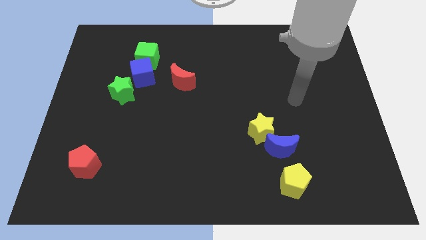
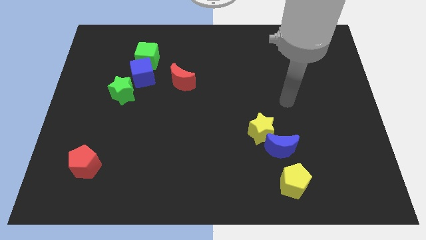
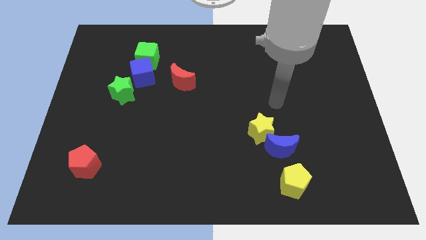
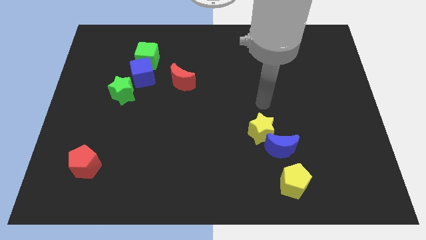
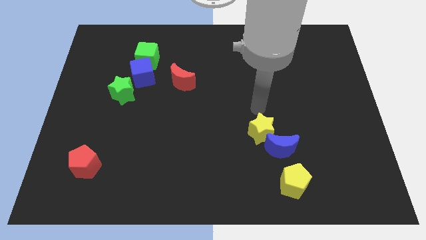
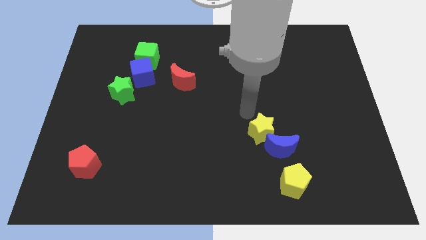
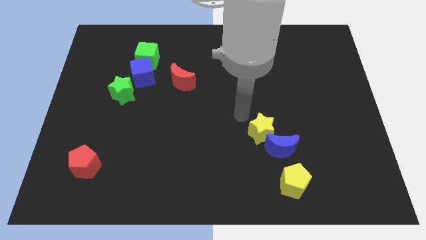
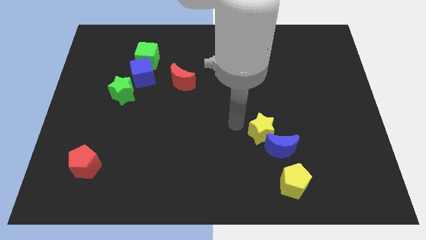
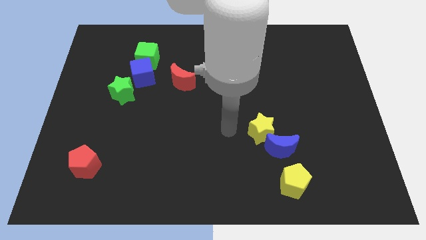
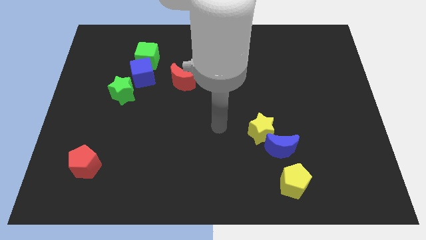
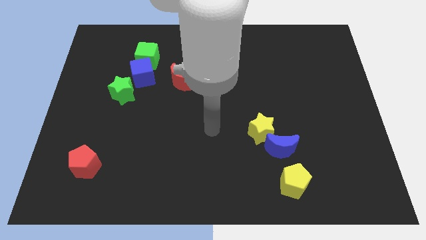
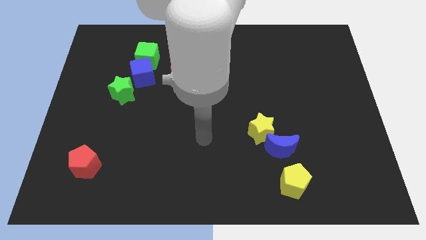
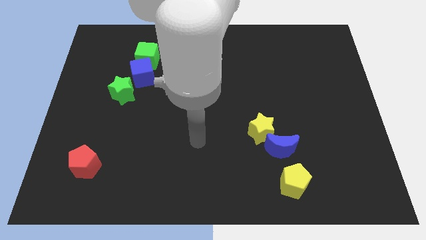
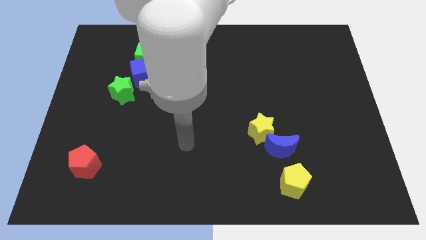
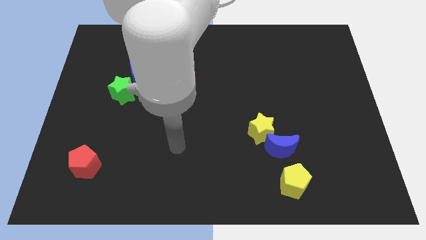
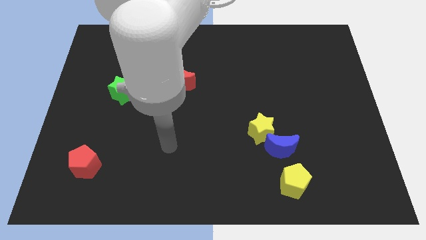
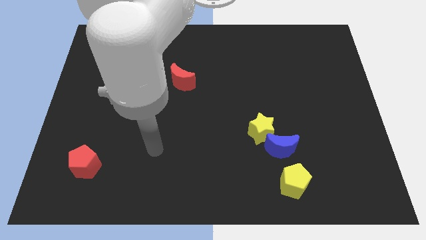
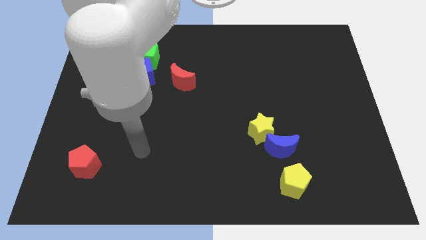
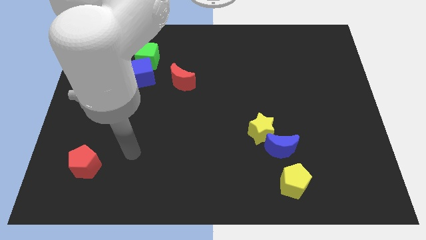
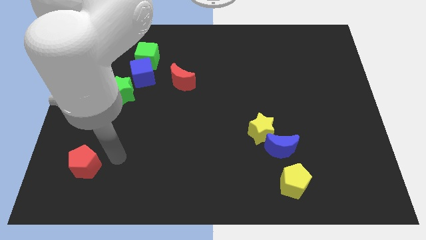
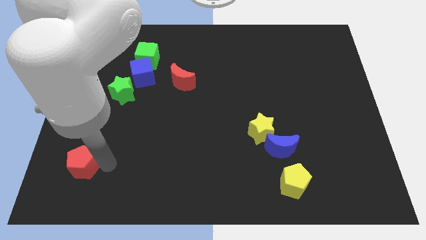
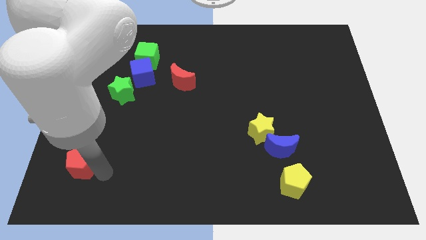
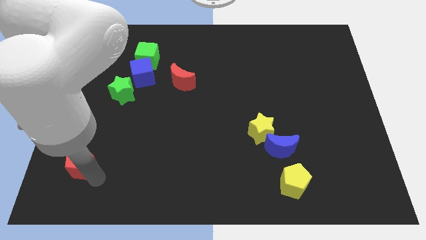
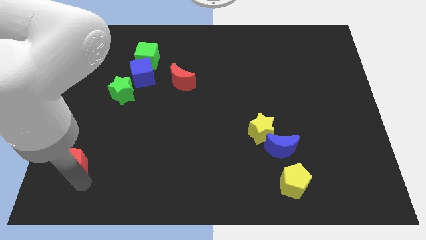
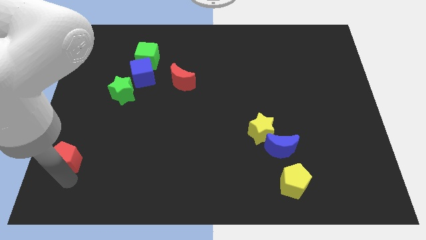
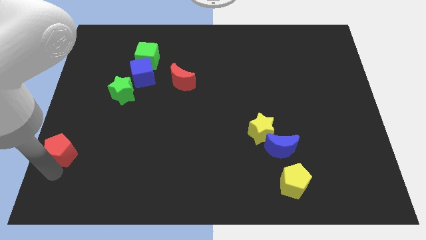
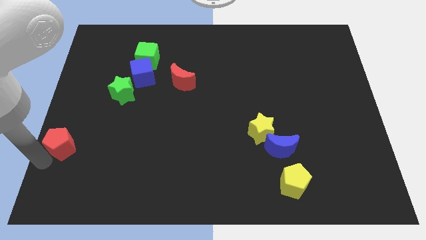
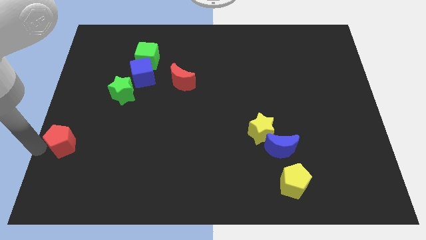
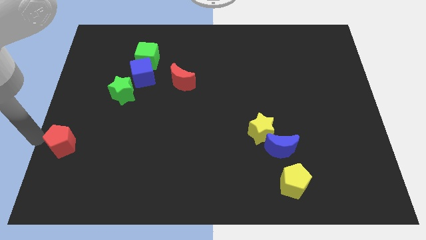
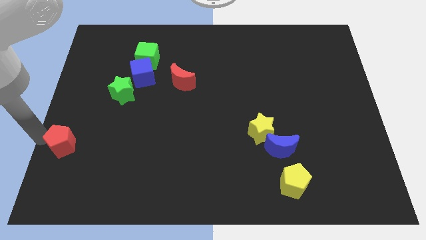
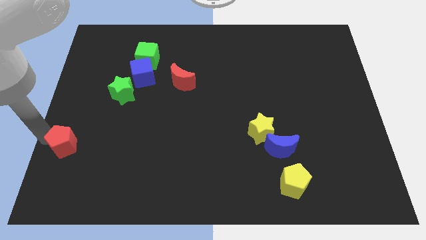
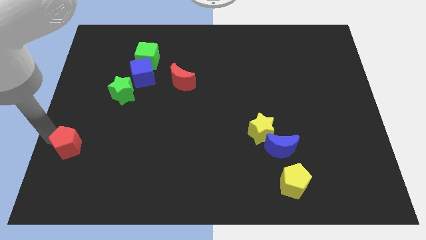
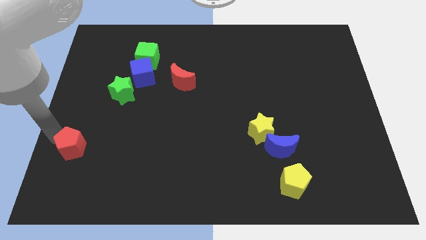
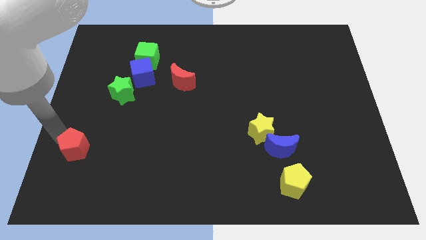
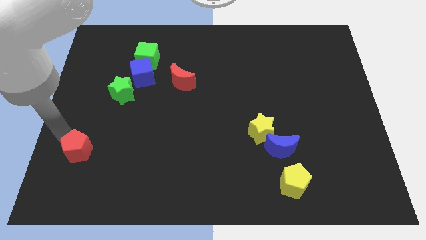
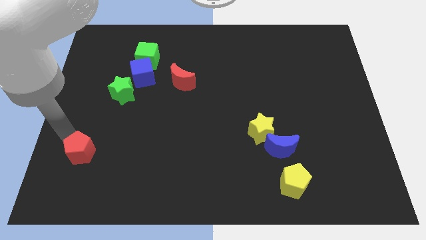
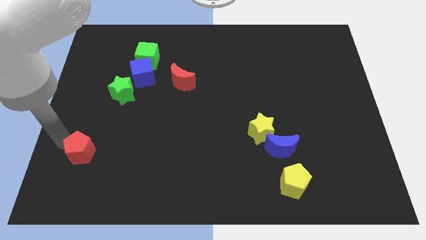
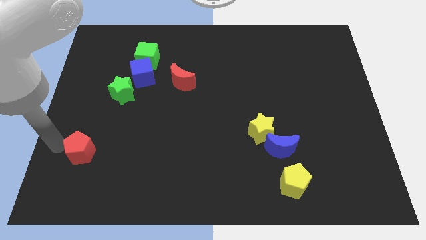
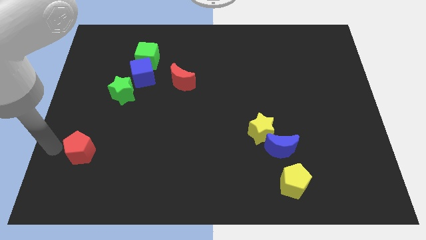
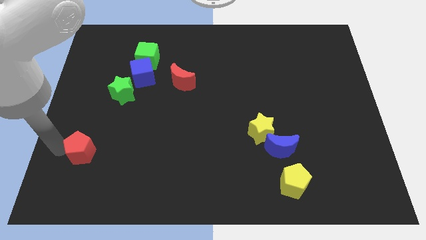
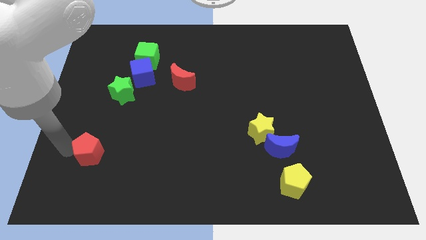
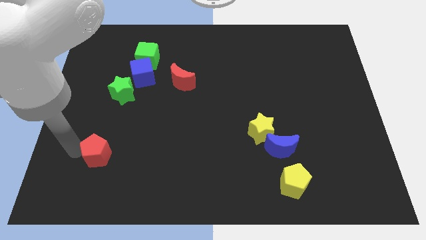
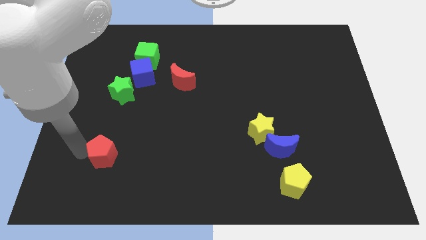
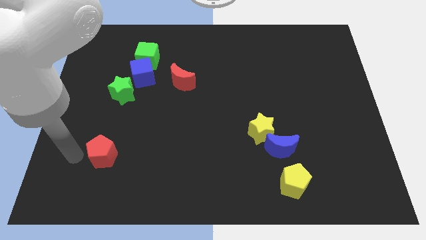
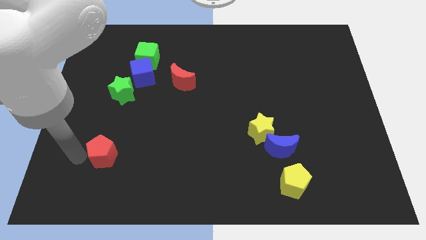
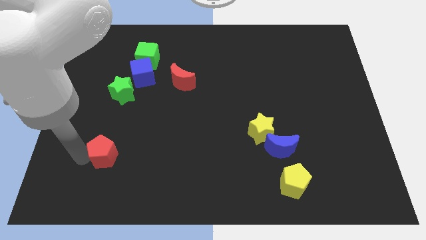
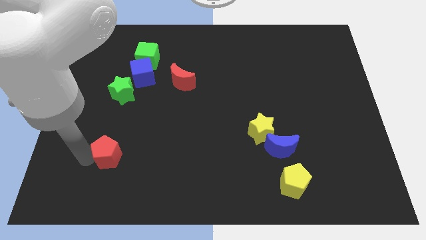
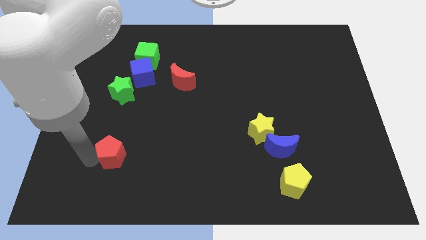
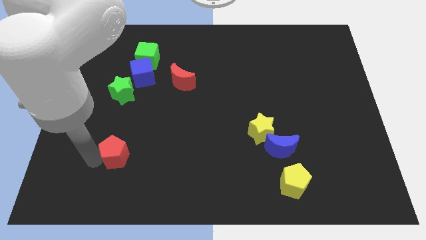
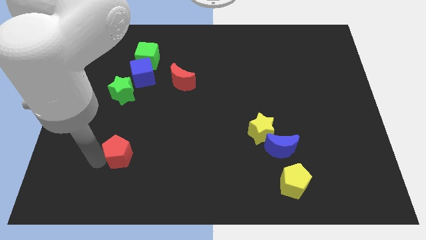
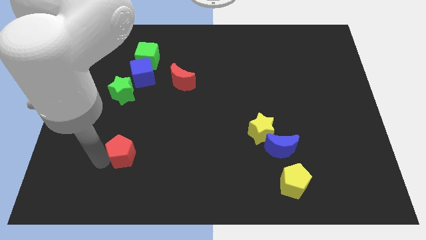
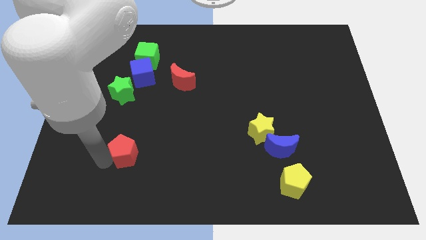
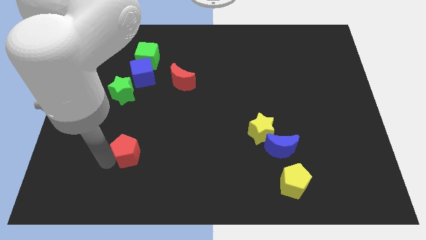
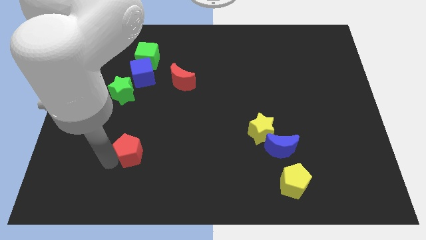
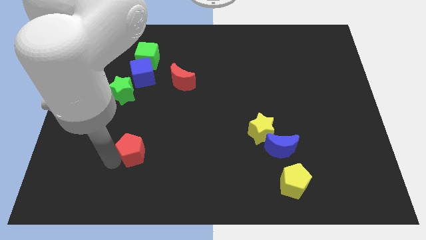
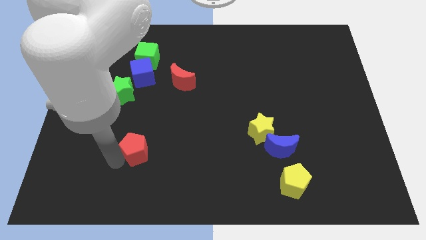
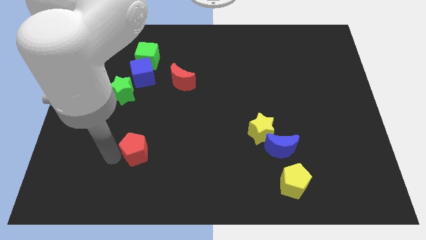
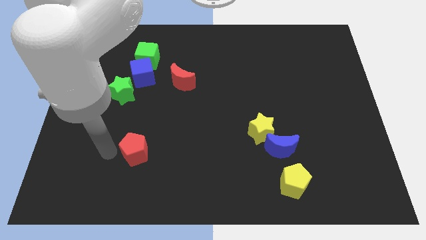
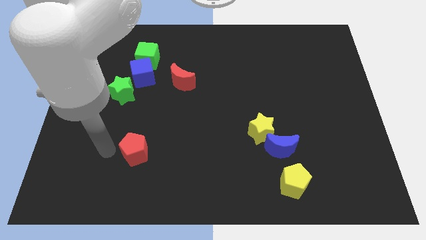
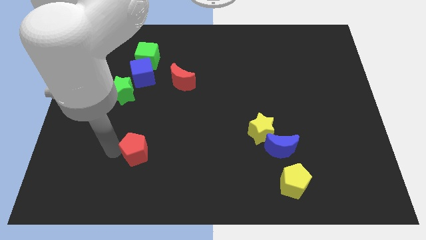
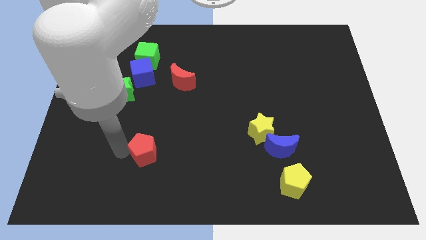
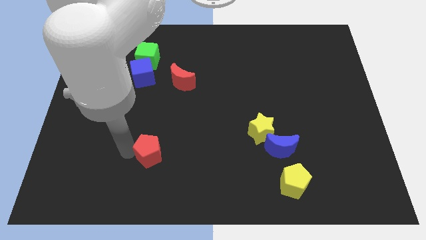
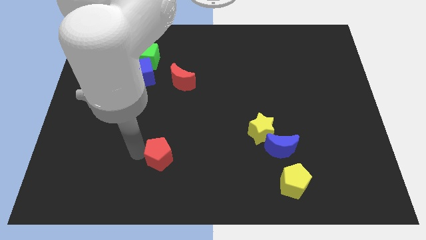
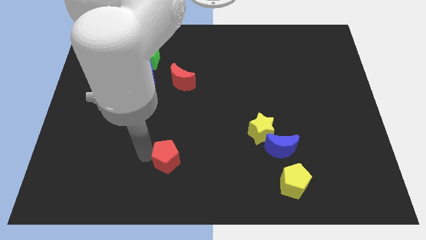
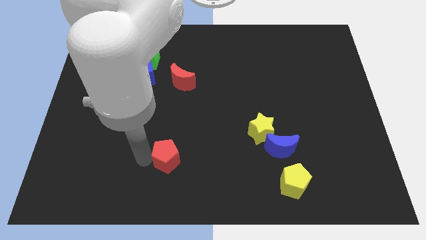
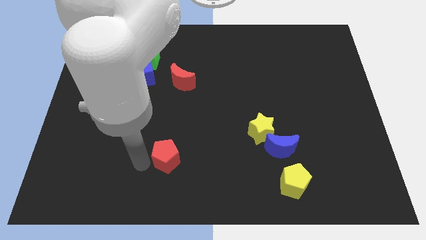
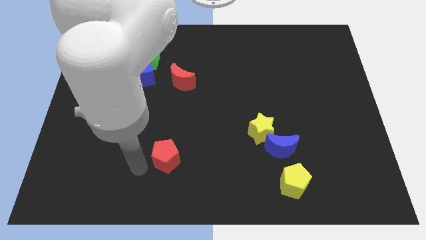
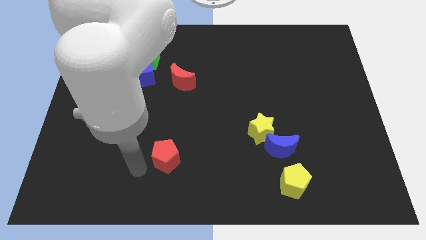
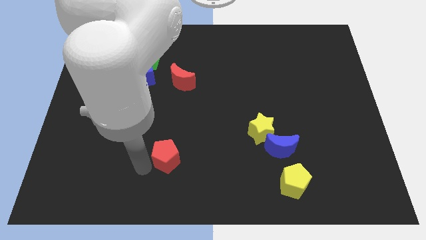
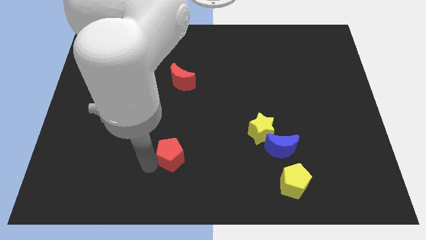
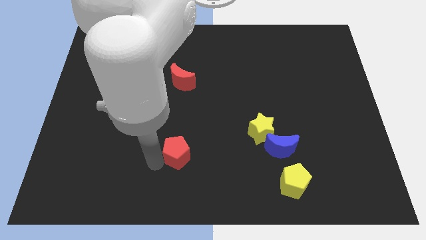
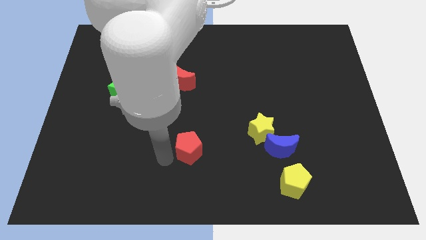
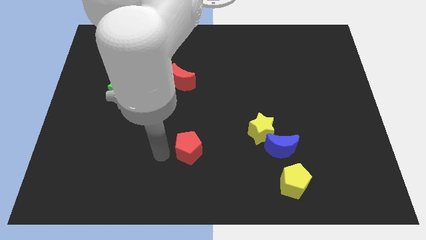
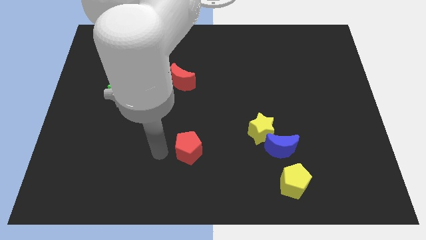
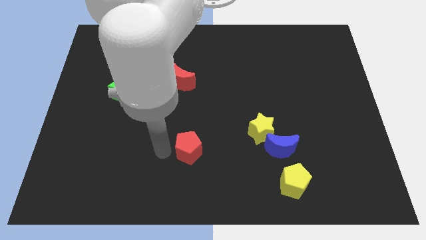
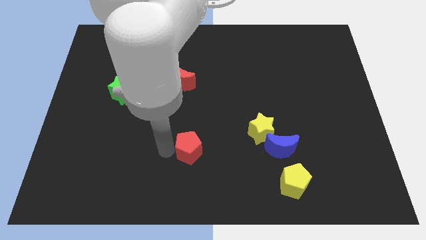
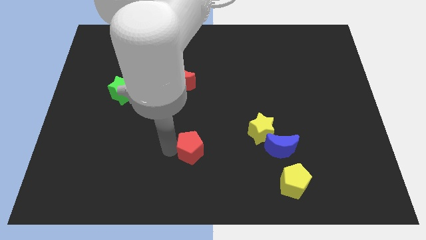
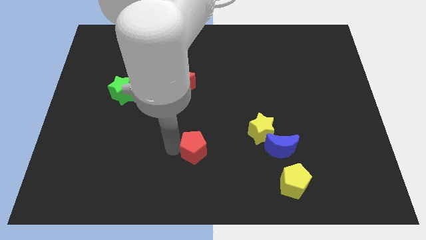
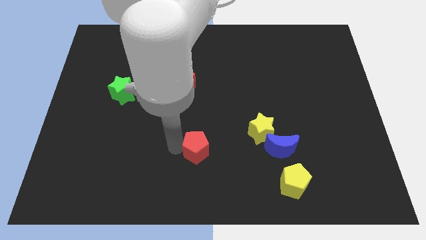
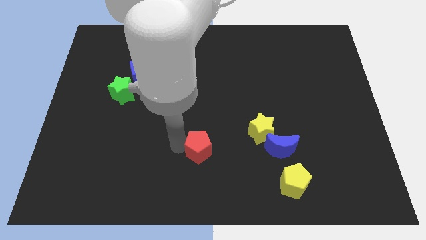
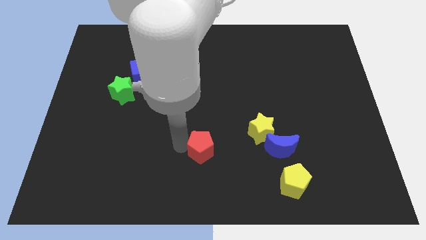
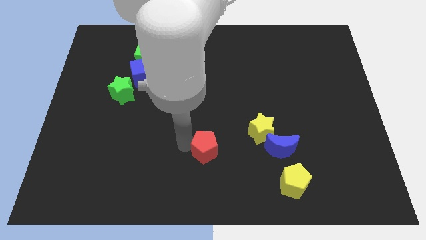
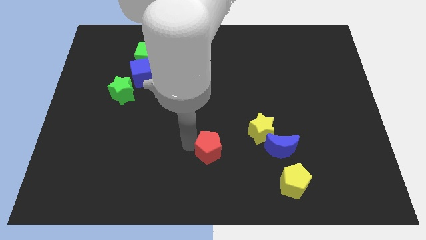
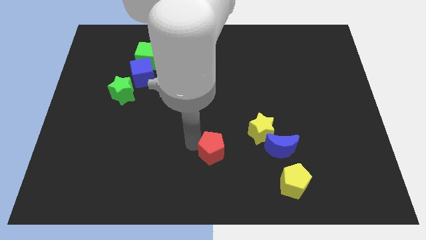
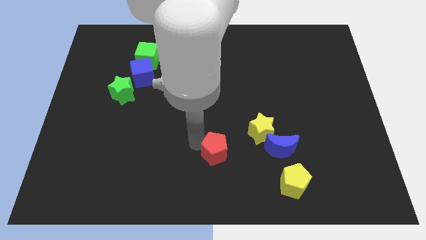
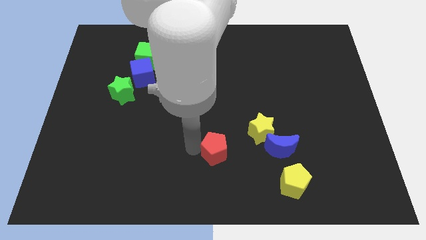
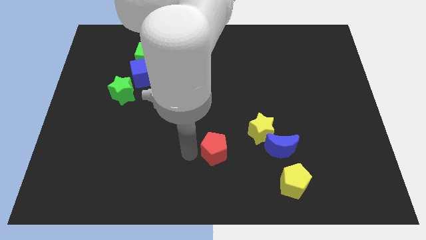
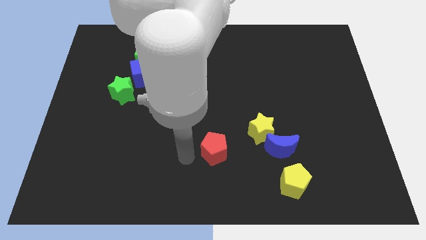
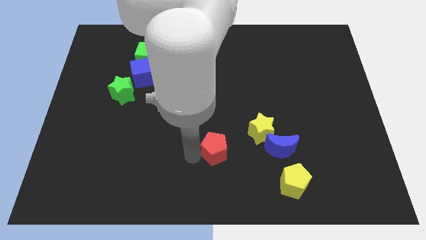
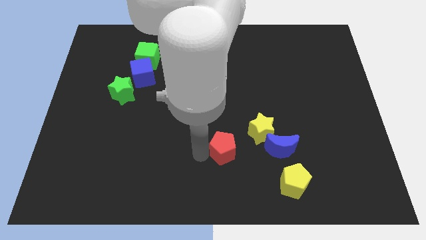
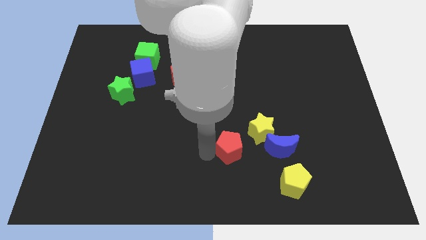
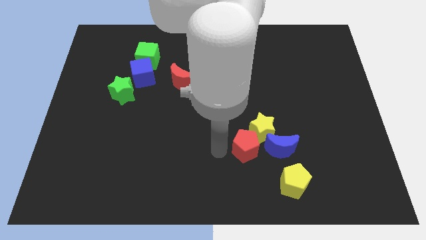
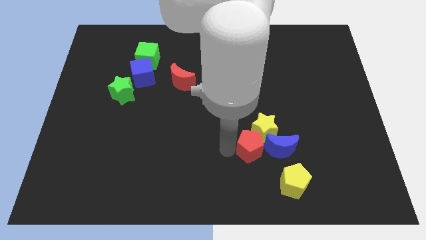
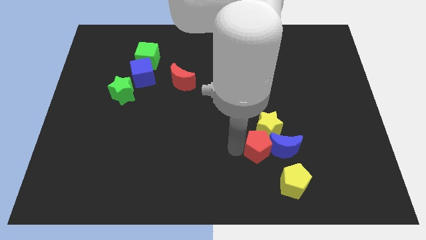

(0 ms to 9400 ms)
move the red pentagon to the blue moon
